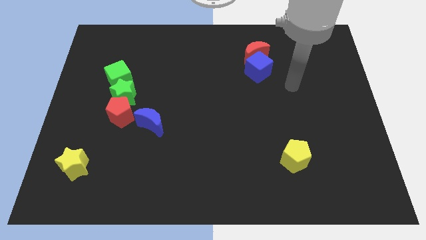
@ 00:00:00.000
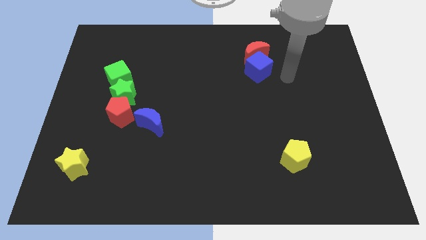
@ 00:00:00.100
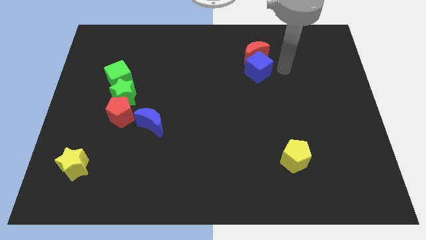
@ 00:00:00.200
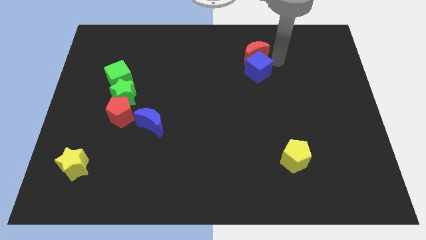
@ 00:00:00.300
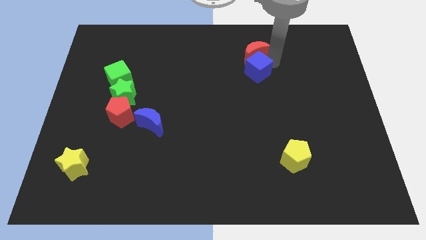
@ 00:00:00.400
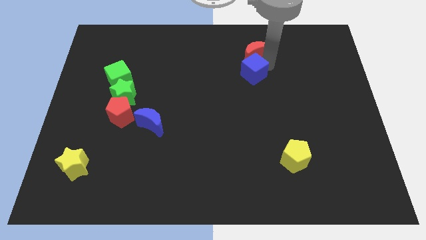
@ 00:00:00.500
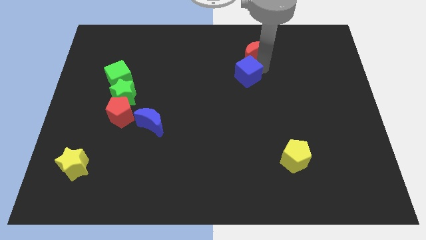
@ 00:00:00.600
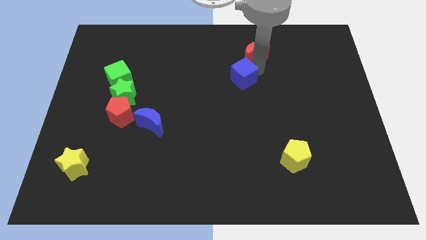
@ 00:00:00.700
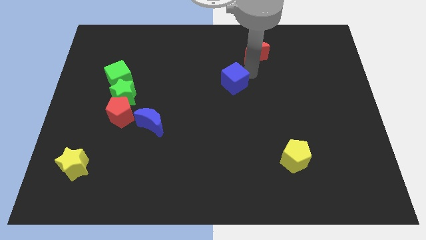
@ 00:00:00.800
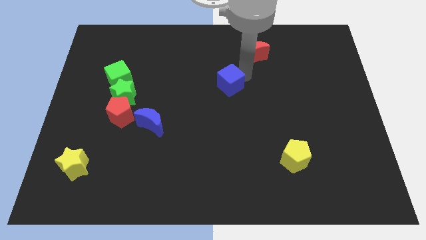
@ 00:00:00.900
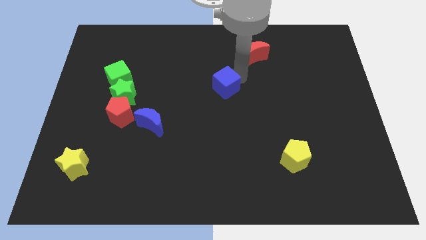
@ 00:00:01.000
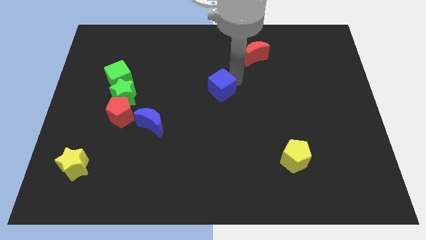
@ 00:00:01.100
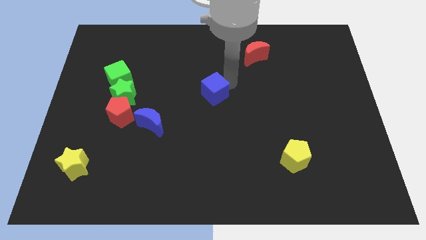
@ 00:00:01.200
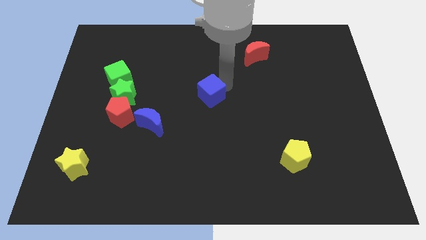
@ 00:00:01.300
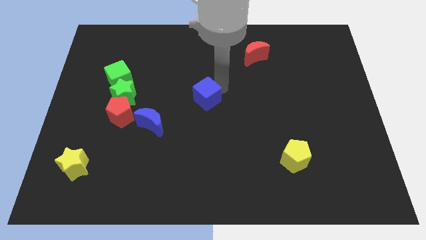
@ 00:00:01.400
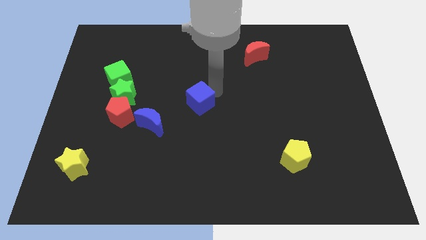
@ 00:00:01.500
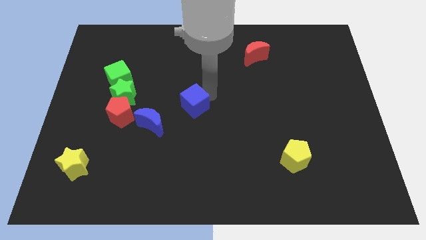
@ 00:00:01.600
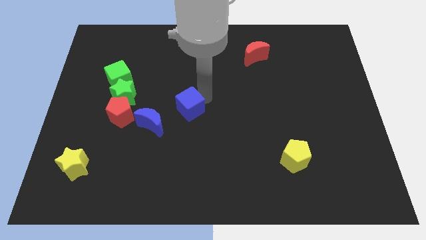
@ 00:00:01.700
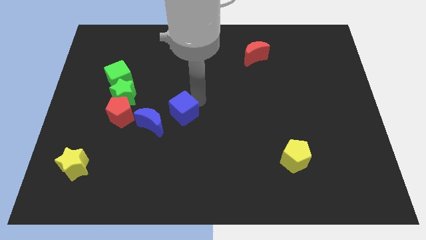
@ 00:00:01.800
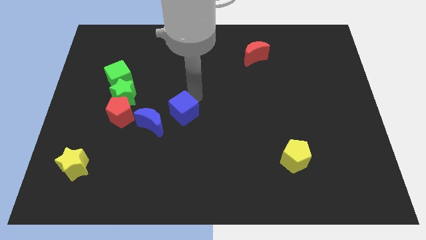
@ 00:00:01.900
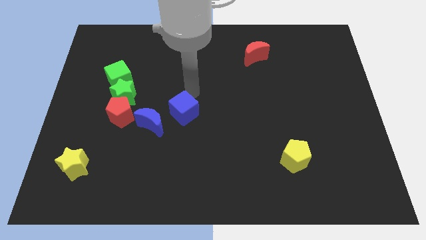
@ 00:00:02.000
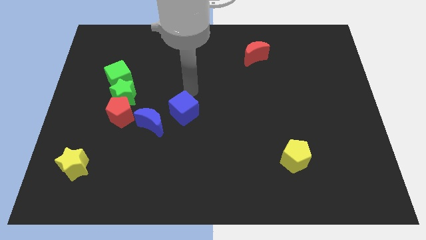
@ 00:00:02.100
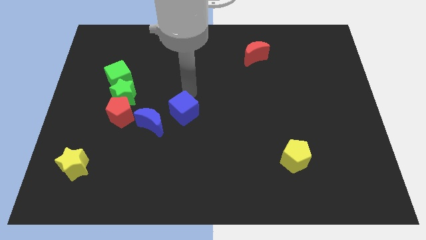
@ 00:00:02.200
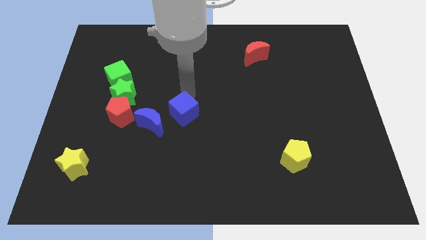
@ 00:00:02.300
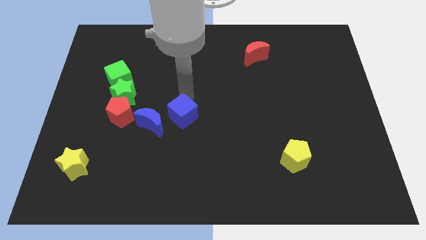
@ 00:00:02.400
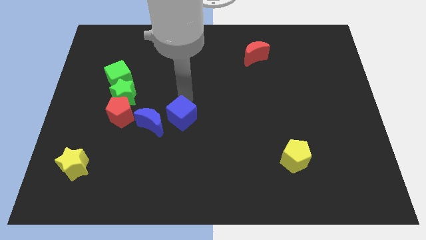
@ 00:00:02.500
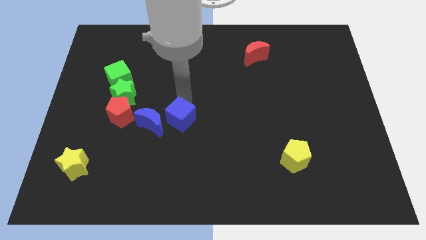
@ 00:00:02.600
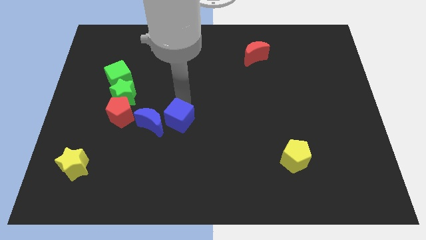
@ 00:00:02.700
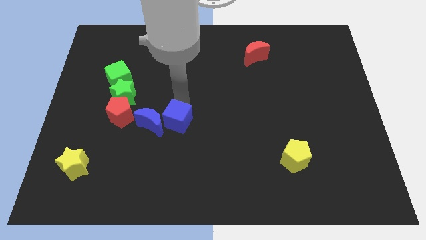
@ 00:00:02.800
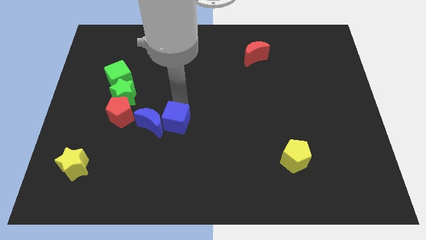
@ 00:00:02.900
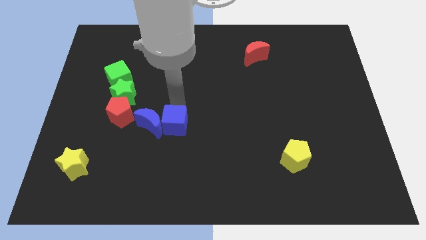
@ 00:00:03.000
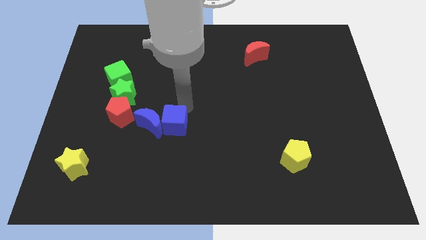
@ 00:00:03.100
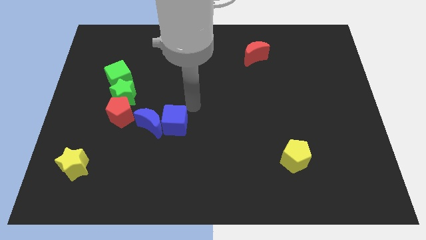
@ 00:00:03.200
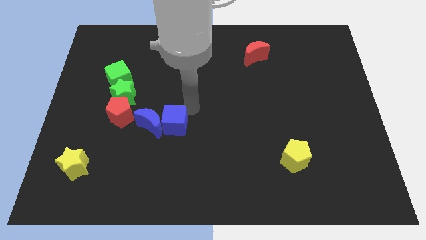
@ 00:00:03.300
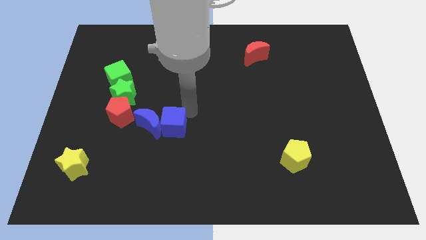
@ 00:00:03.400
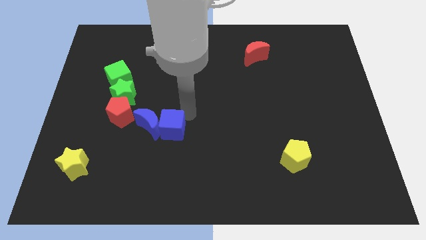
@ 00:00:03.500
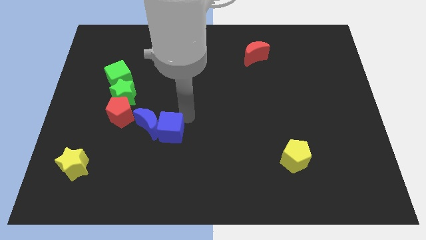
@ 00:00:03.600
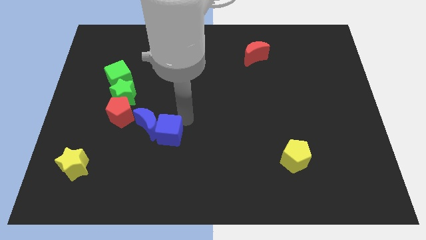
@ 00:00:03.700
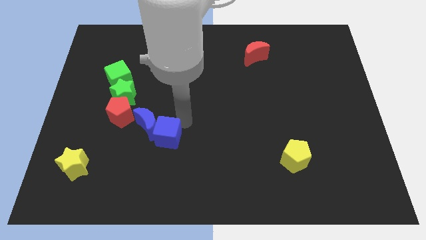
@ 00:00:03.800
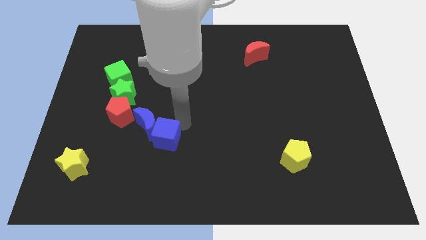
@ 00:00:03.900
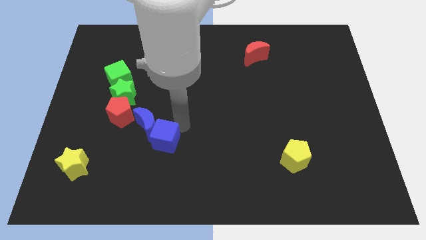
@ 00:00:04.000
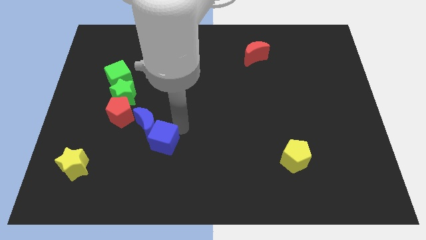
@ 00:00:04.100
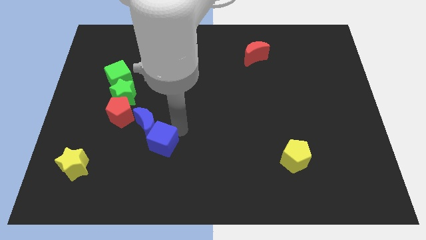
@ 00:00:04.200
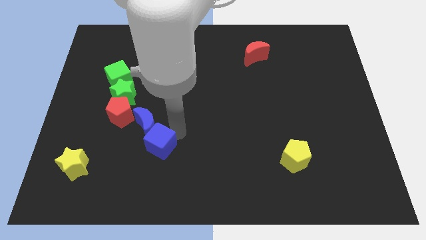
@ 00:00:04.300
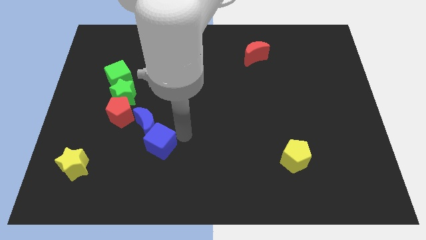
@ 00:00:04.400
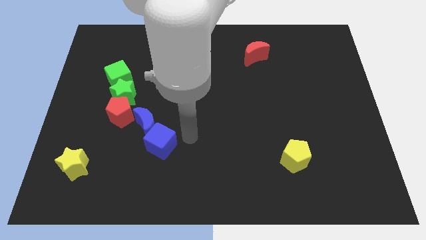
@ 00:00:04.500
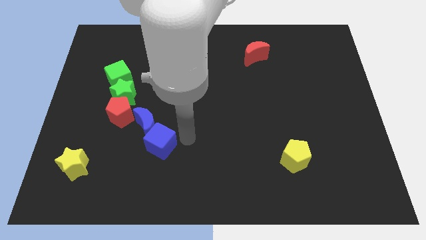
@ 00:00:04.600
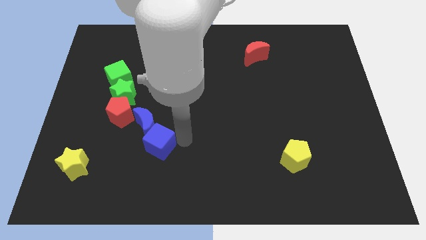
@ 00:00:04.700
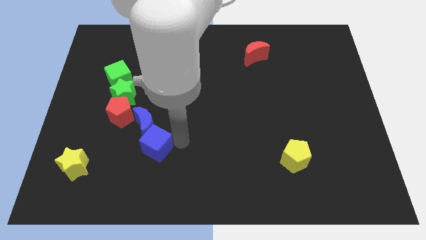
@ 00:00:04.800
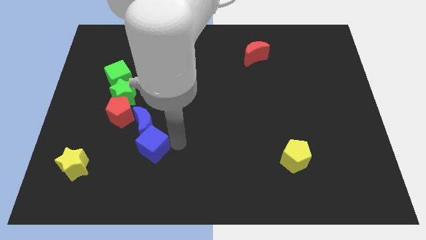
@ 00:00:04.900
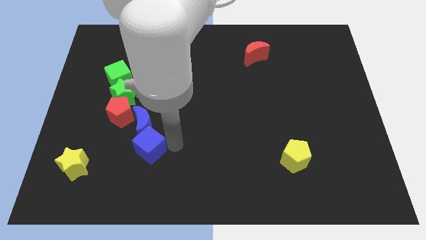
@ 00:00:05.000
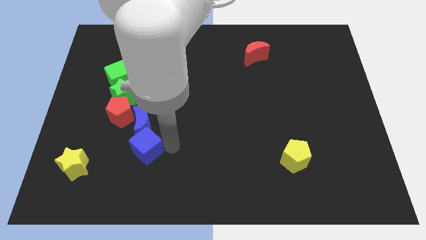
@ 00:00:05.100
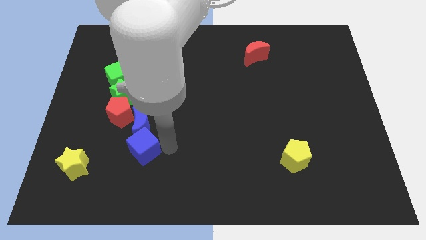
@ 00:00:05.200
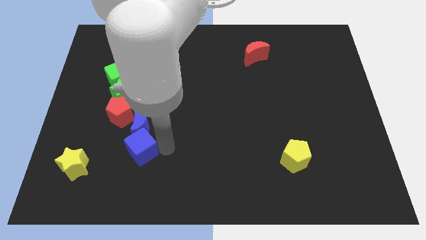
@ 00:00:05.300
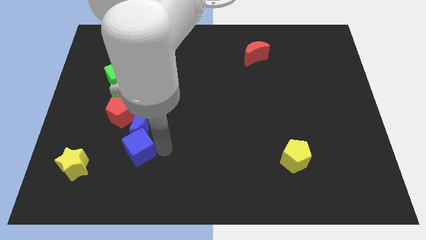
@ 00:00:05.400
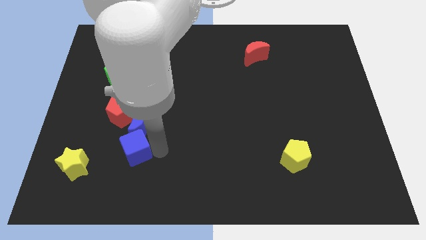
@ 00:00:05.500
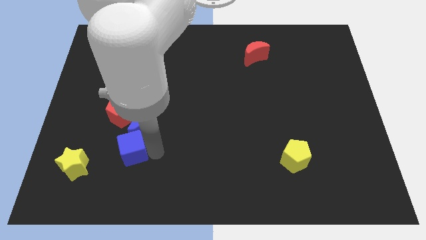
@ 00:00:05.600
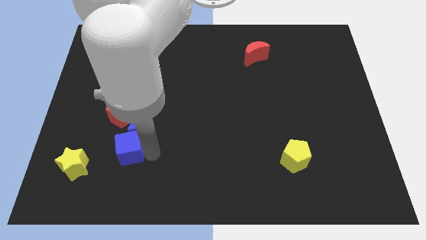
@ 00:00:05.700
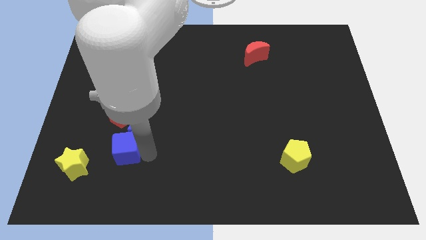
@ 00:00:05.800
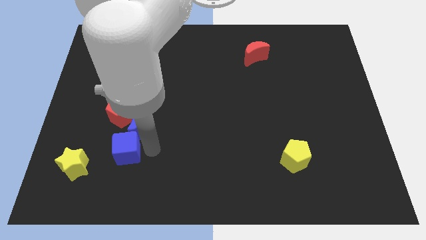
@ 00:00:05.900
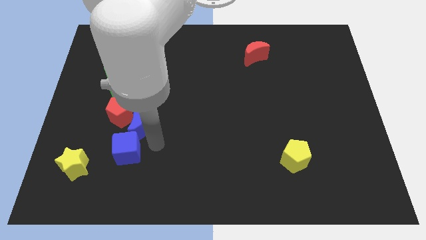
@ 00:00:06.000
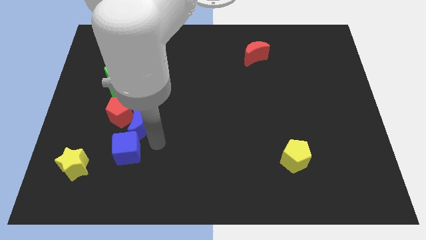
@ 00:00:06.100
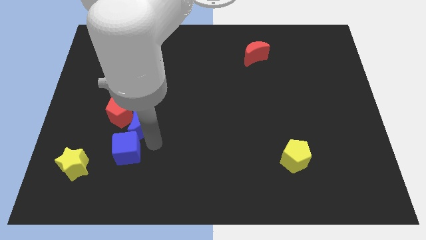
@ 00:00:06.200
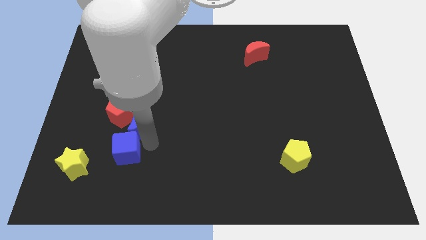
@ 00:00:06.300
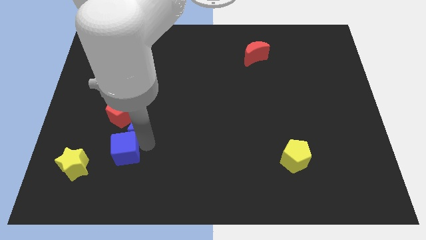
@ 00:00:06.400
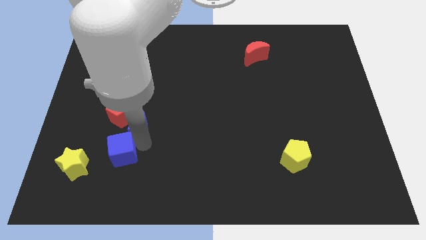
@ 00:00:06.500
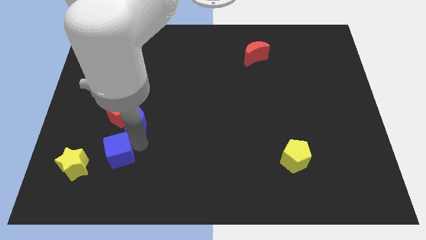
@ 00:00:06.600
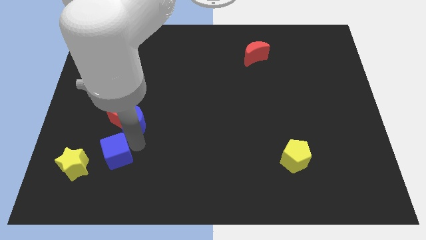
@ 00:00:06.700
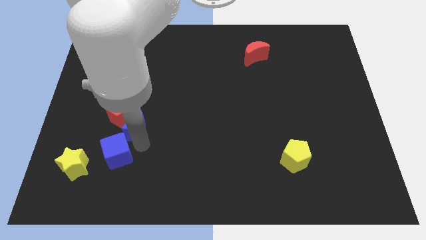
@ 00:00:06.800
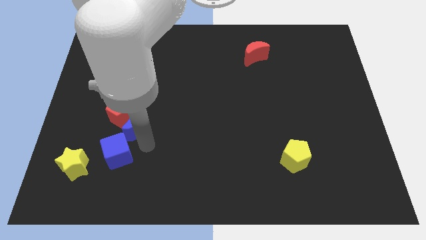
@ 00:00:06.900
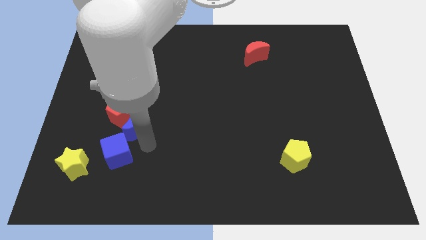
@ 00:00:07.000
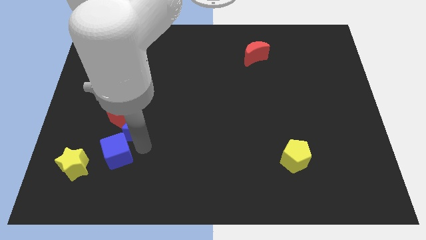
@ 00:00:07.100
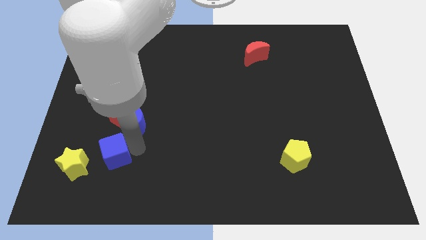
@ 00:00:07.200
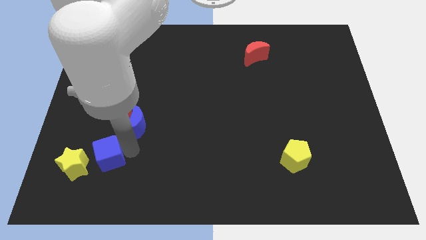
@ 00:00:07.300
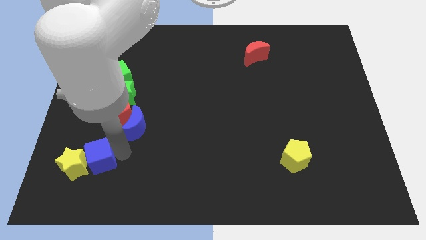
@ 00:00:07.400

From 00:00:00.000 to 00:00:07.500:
move the blue cube close to the yellow star
